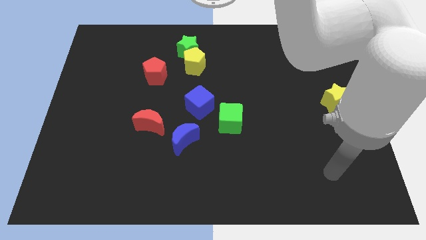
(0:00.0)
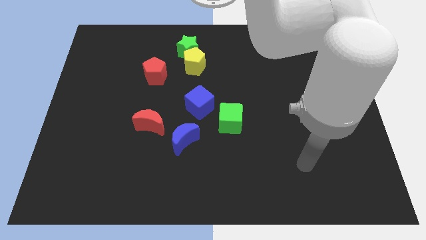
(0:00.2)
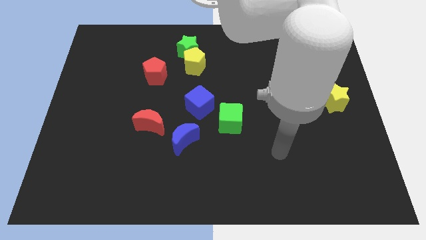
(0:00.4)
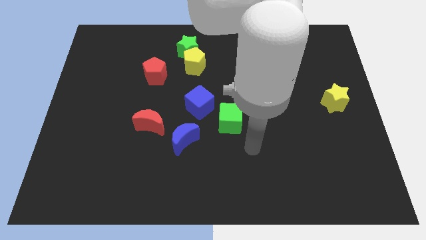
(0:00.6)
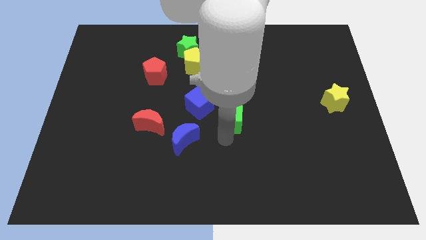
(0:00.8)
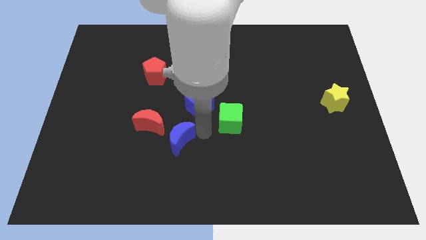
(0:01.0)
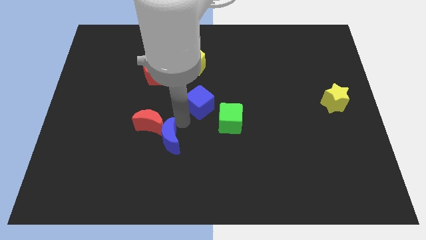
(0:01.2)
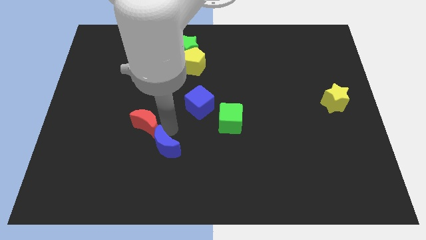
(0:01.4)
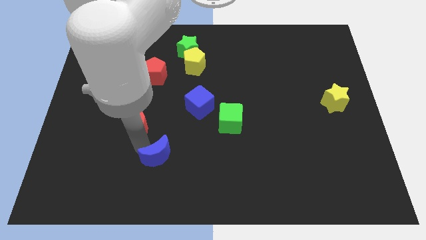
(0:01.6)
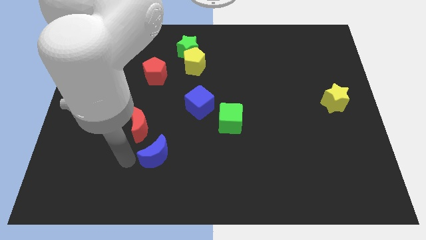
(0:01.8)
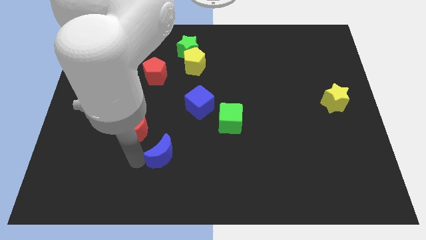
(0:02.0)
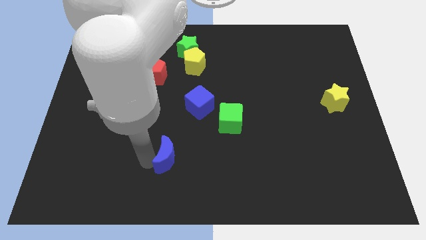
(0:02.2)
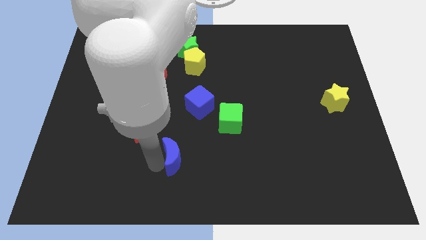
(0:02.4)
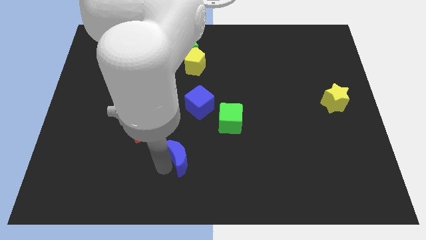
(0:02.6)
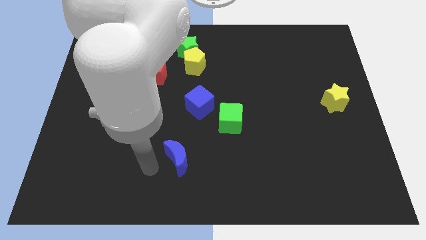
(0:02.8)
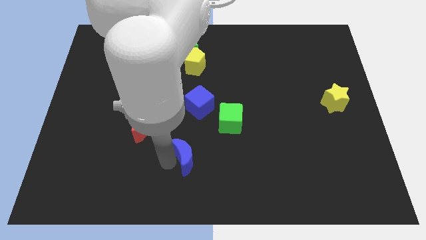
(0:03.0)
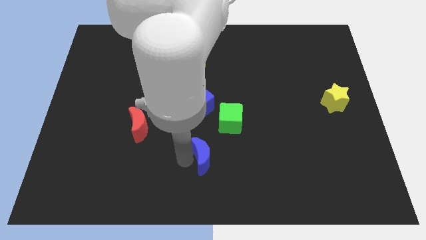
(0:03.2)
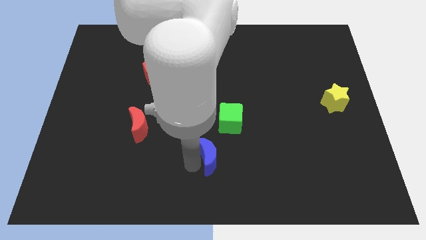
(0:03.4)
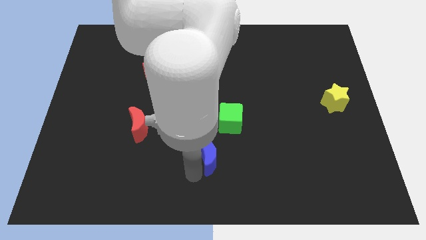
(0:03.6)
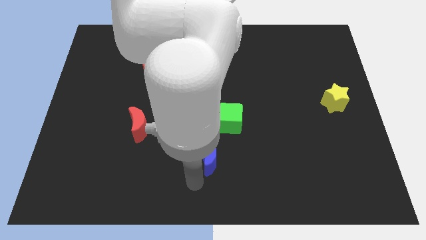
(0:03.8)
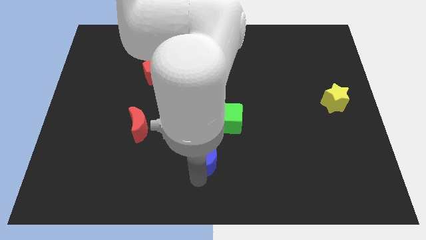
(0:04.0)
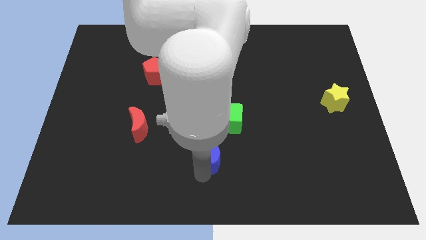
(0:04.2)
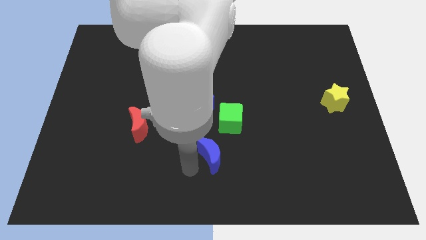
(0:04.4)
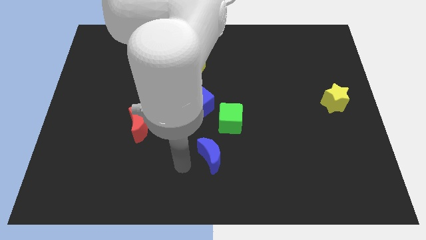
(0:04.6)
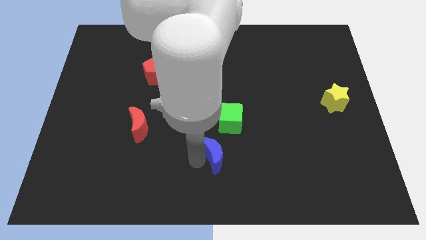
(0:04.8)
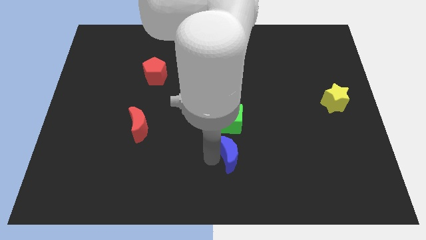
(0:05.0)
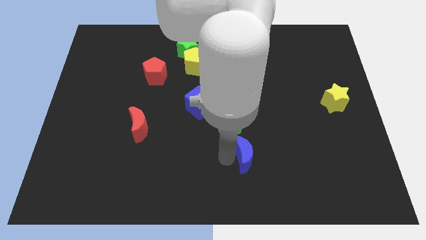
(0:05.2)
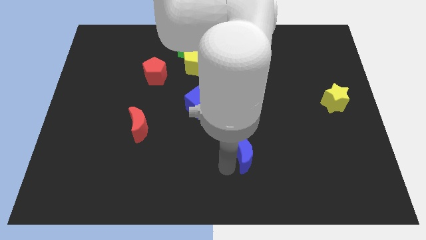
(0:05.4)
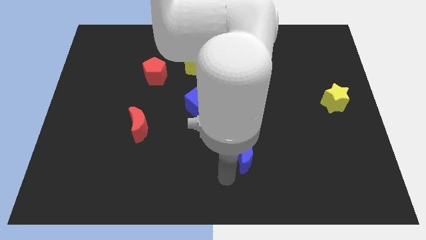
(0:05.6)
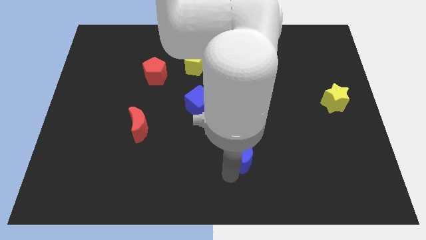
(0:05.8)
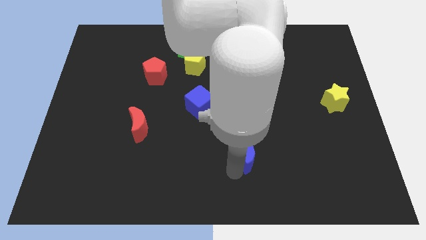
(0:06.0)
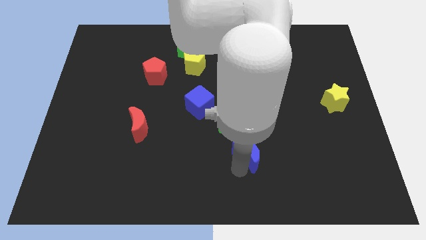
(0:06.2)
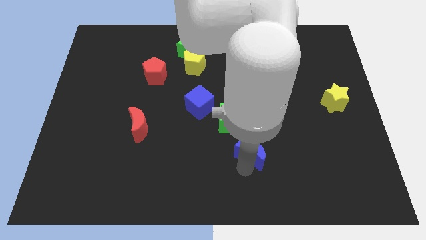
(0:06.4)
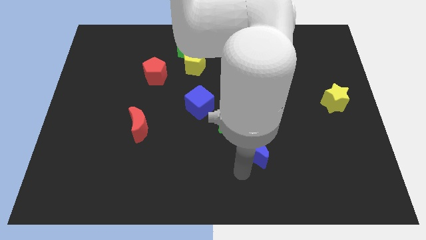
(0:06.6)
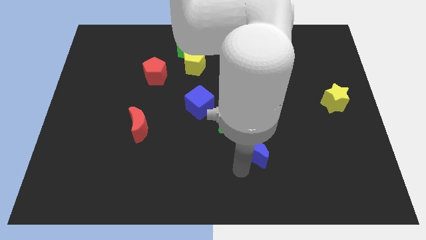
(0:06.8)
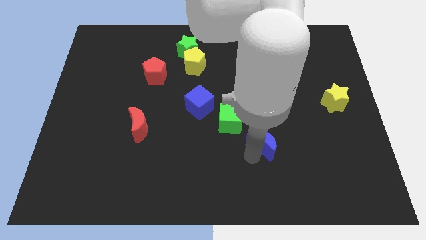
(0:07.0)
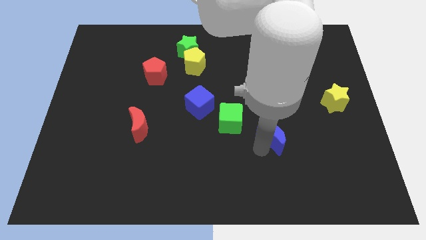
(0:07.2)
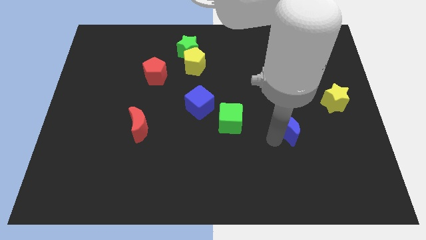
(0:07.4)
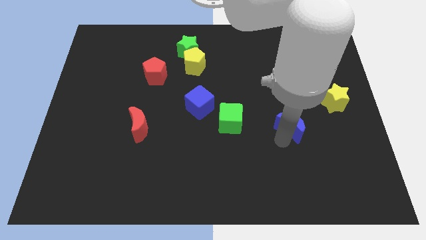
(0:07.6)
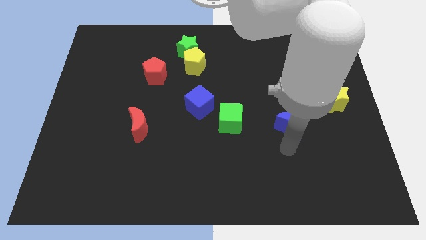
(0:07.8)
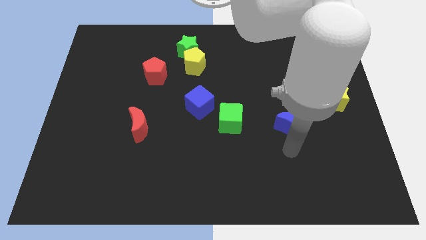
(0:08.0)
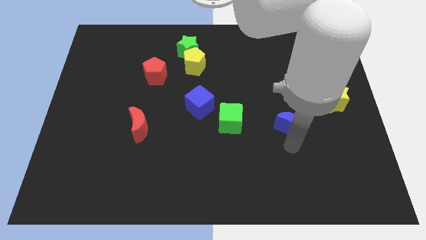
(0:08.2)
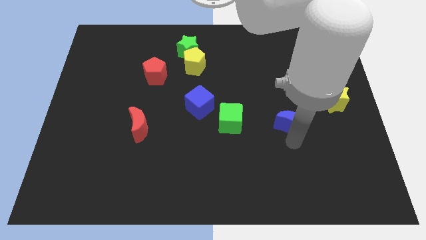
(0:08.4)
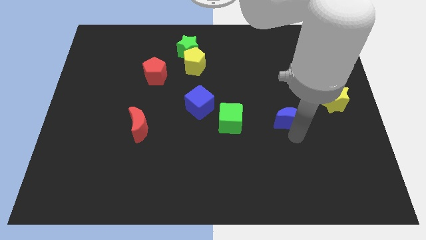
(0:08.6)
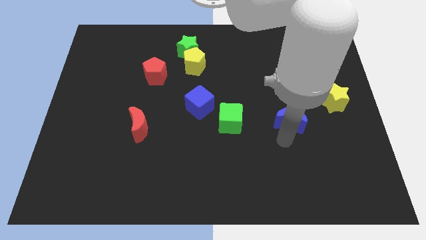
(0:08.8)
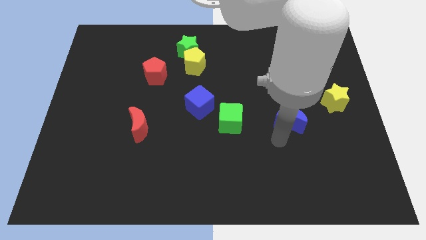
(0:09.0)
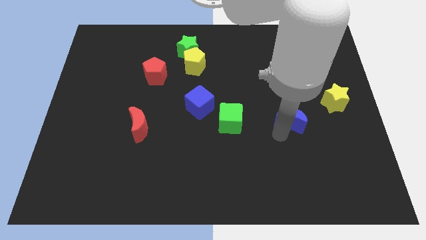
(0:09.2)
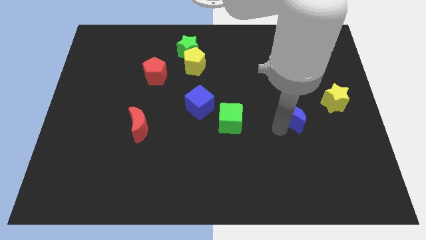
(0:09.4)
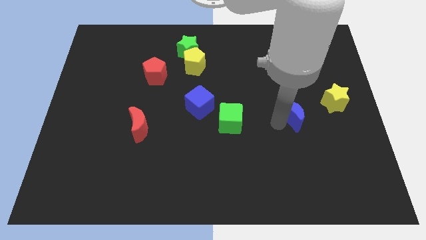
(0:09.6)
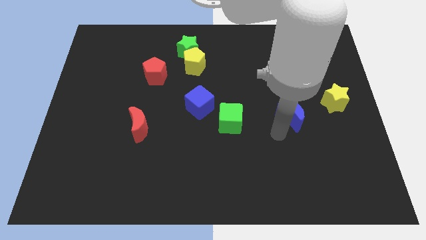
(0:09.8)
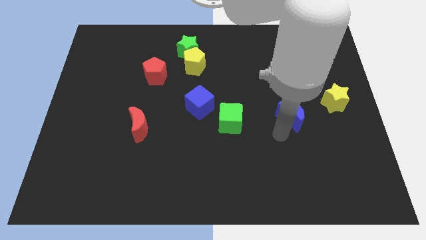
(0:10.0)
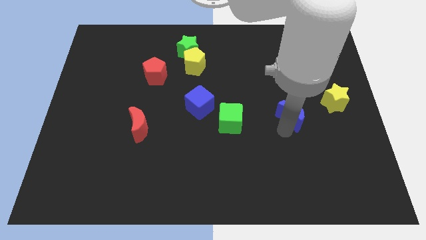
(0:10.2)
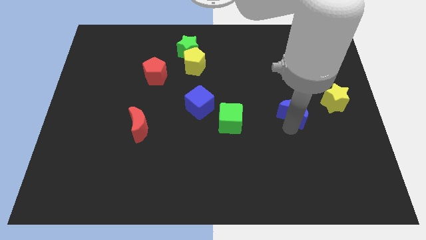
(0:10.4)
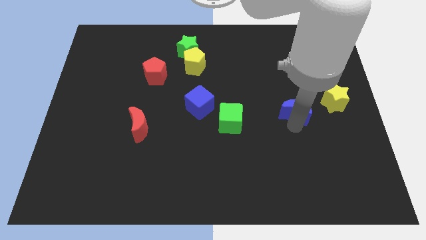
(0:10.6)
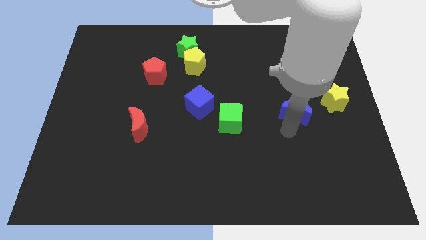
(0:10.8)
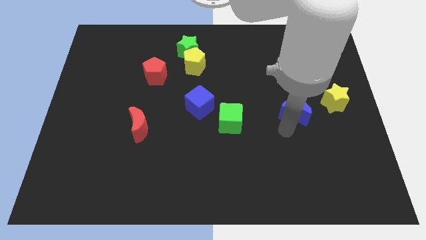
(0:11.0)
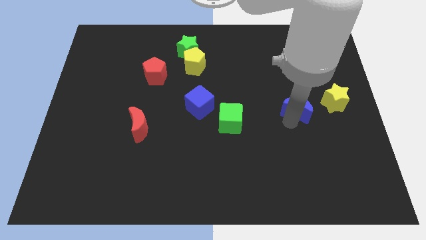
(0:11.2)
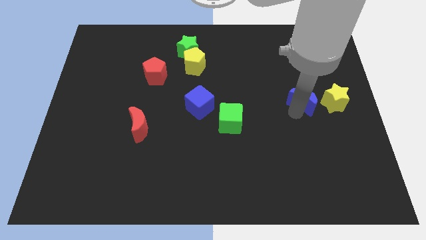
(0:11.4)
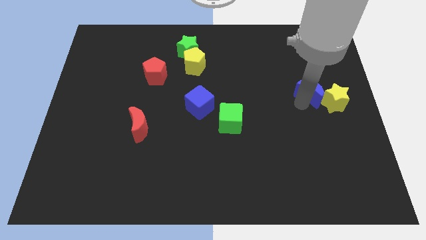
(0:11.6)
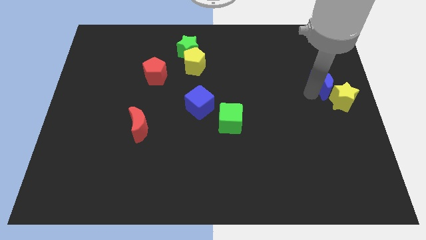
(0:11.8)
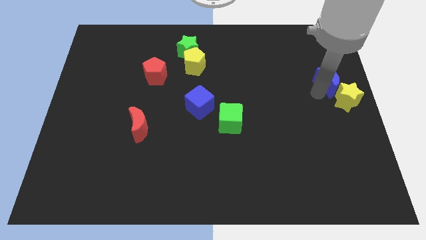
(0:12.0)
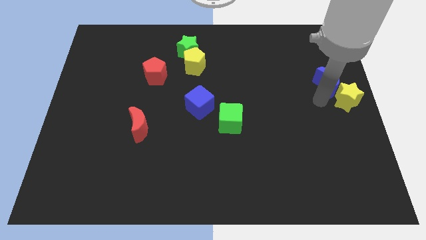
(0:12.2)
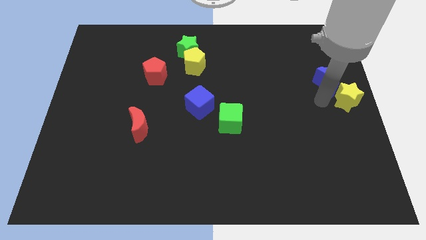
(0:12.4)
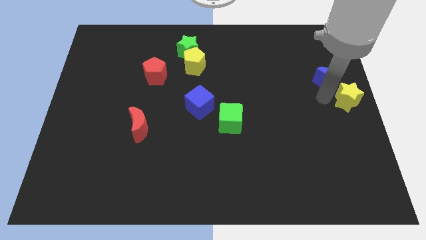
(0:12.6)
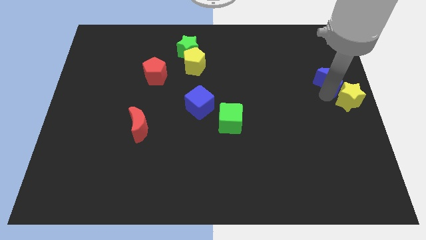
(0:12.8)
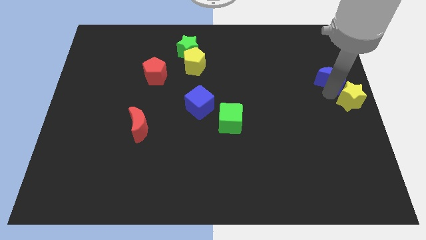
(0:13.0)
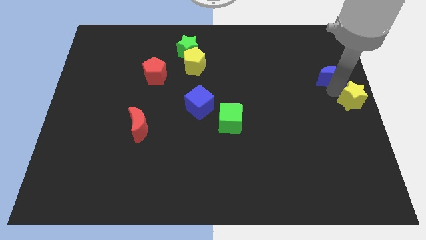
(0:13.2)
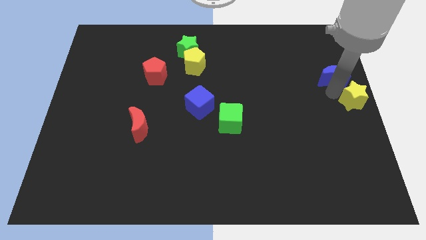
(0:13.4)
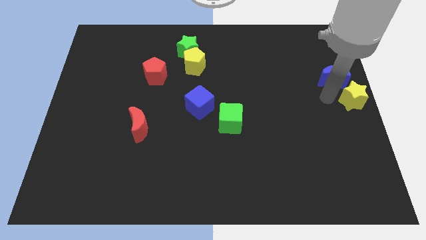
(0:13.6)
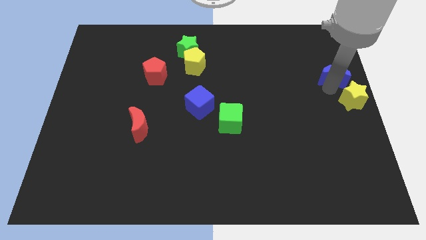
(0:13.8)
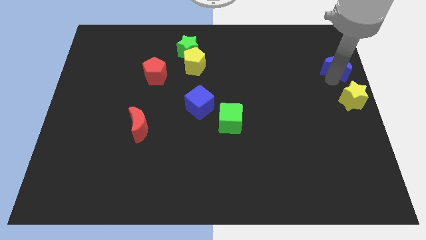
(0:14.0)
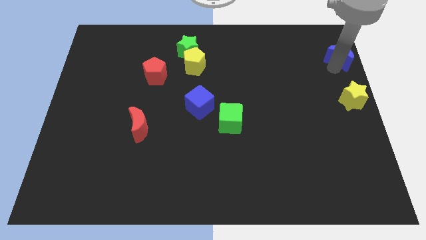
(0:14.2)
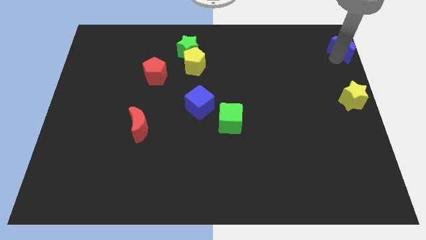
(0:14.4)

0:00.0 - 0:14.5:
slide the blue moon to the top right of the board
